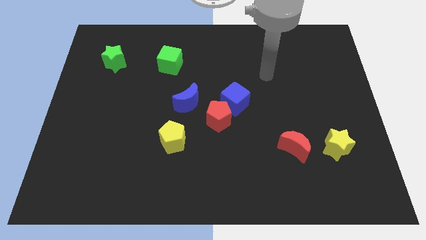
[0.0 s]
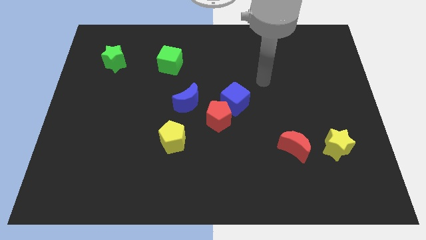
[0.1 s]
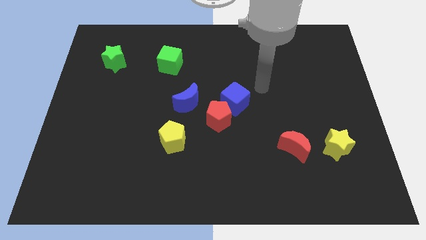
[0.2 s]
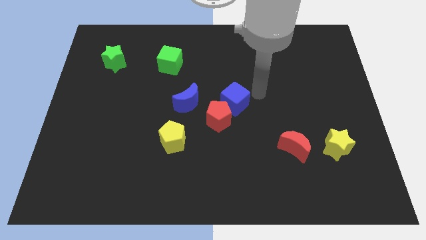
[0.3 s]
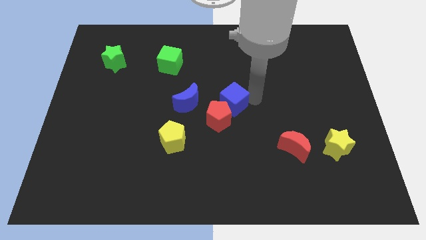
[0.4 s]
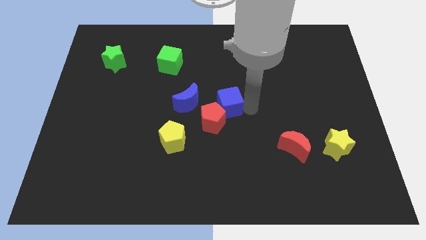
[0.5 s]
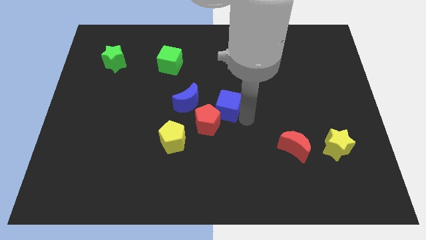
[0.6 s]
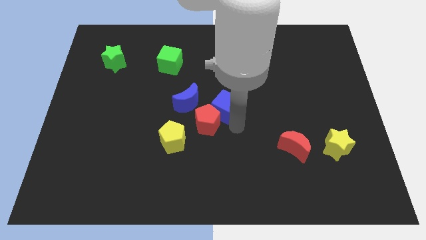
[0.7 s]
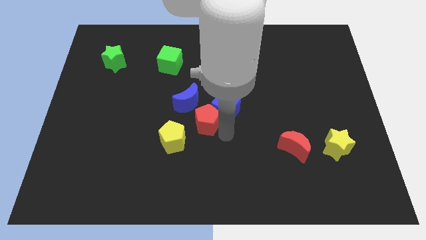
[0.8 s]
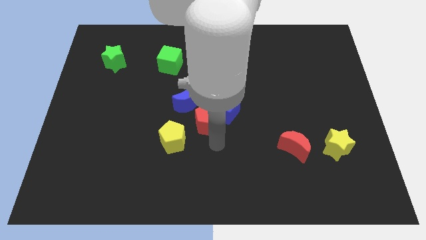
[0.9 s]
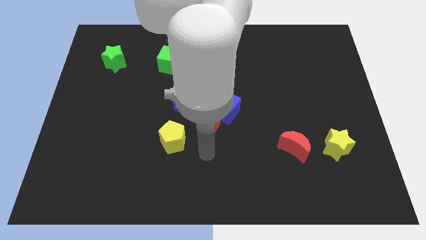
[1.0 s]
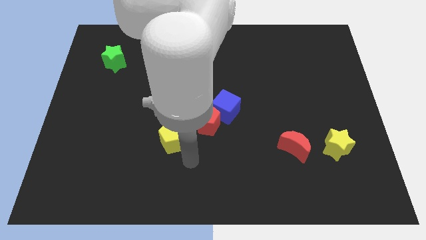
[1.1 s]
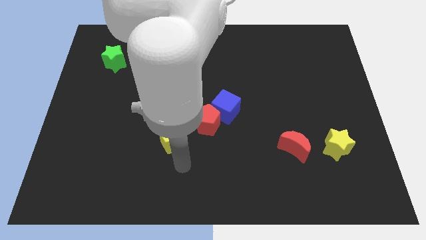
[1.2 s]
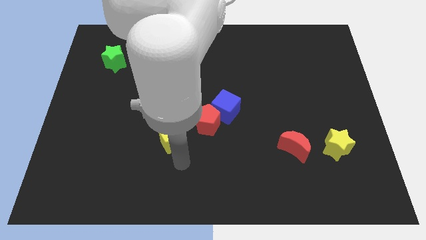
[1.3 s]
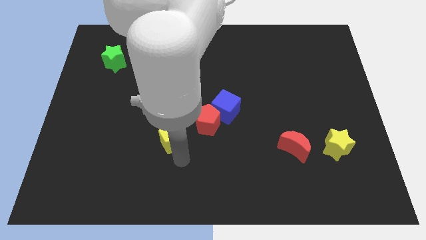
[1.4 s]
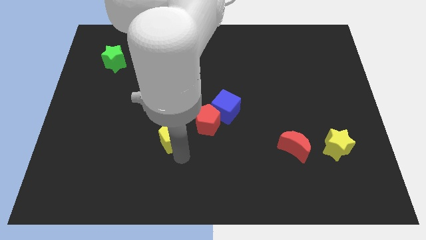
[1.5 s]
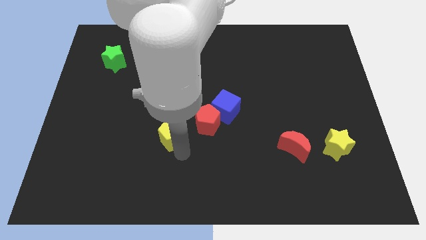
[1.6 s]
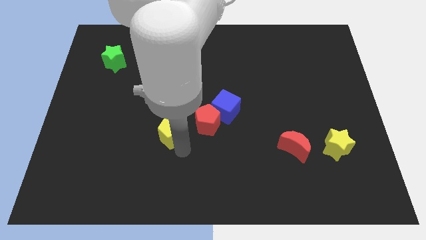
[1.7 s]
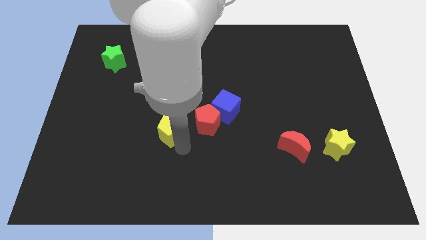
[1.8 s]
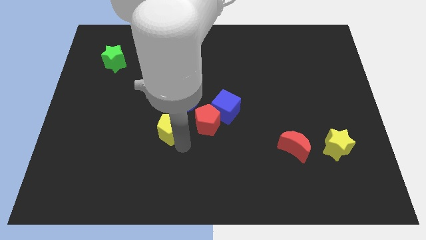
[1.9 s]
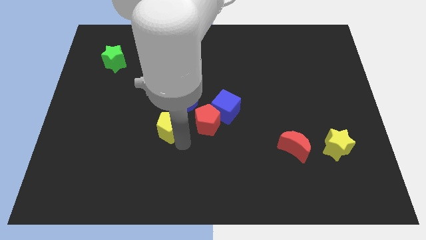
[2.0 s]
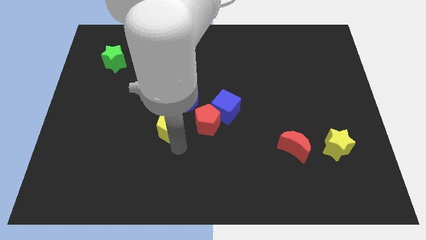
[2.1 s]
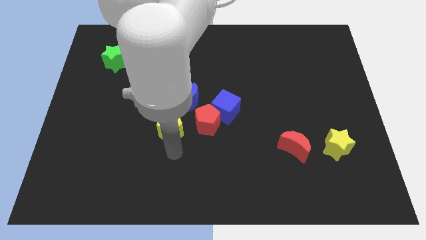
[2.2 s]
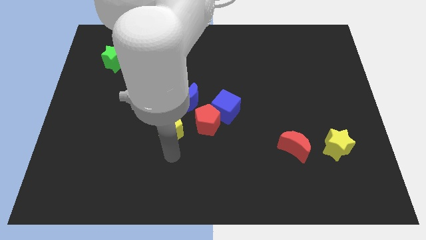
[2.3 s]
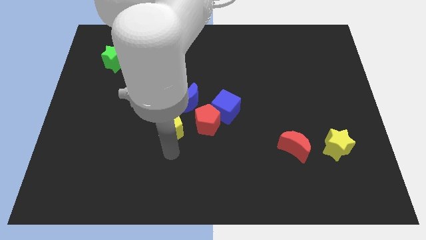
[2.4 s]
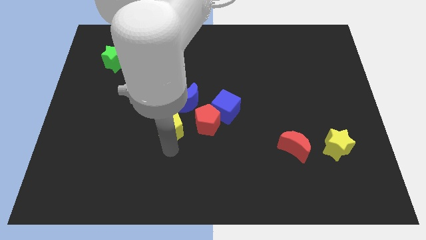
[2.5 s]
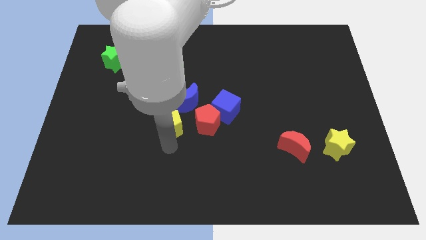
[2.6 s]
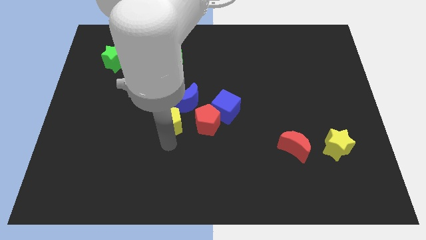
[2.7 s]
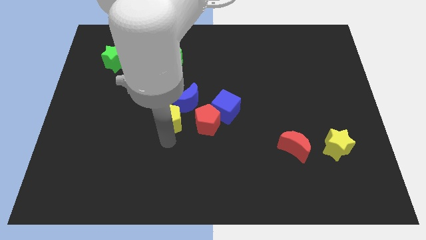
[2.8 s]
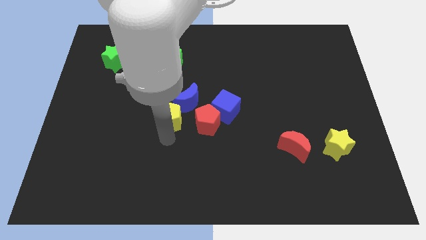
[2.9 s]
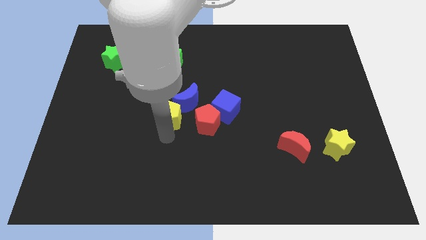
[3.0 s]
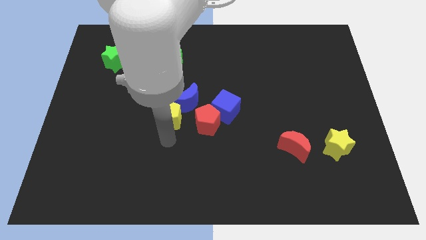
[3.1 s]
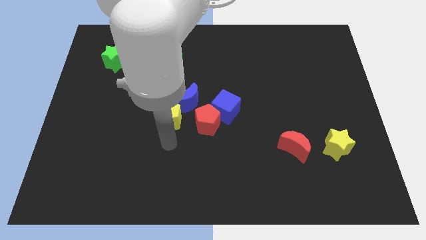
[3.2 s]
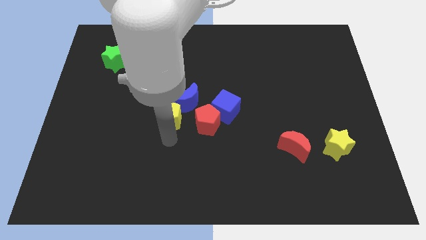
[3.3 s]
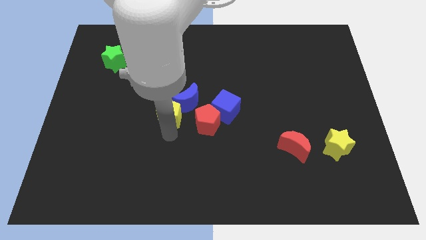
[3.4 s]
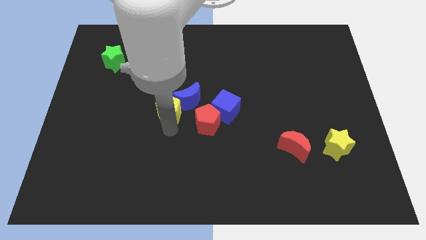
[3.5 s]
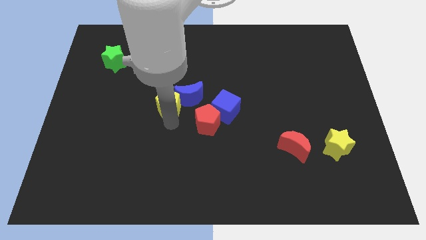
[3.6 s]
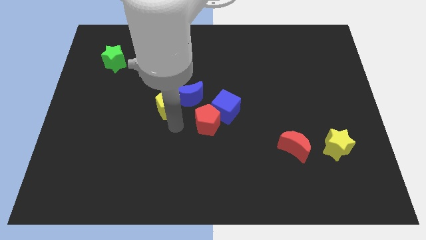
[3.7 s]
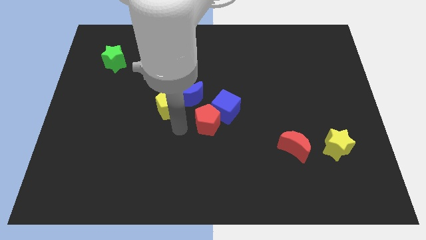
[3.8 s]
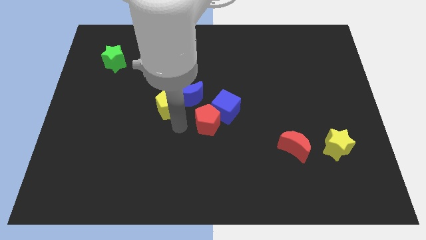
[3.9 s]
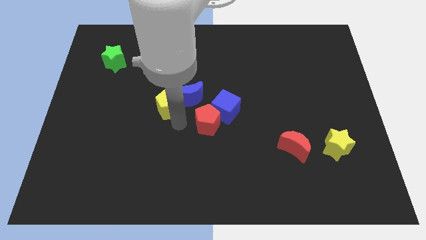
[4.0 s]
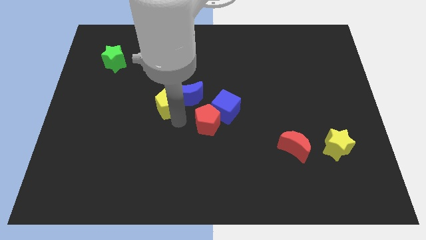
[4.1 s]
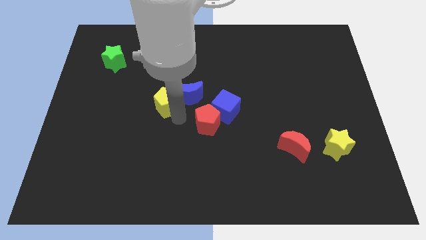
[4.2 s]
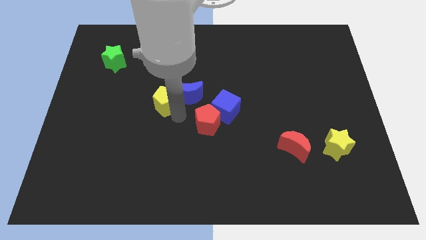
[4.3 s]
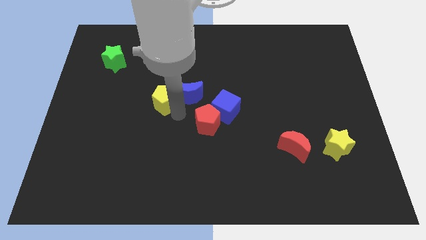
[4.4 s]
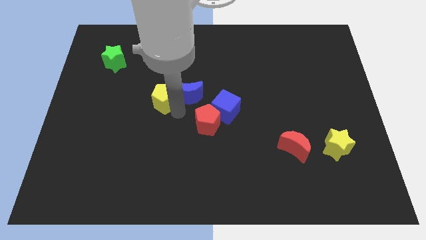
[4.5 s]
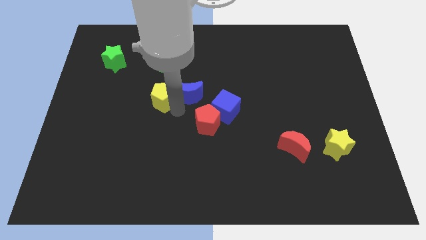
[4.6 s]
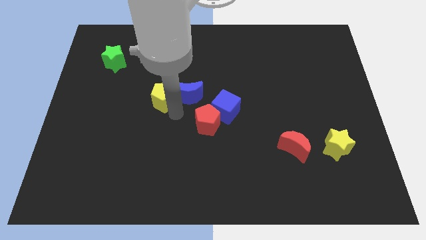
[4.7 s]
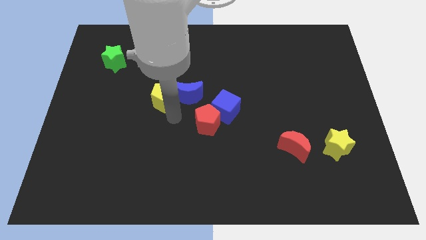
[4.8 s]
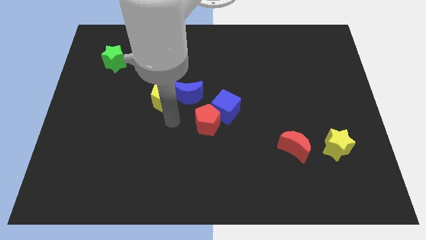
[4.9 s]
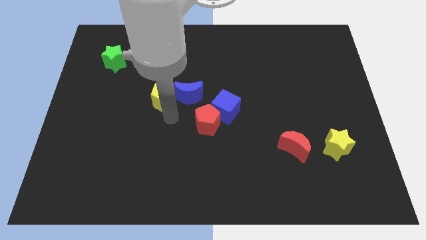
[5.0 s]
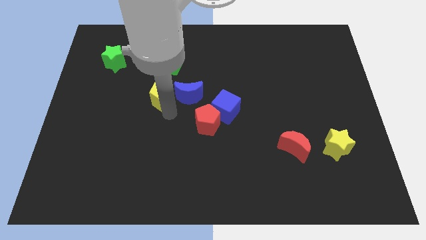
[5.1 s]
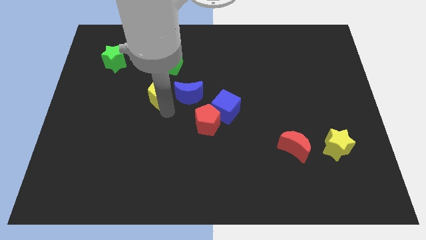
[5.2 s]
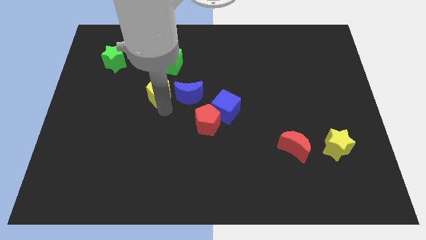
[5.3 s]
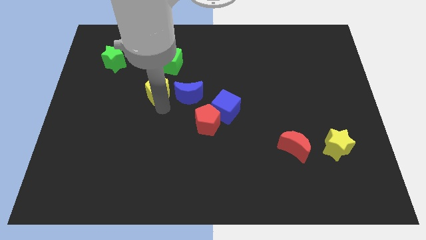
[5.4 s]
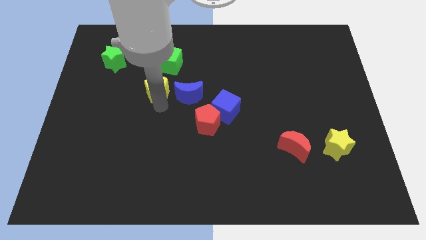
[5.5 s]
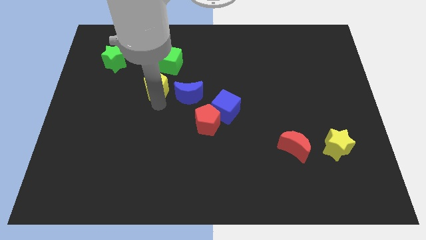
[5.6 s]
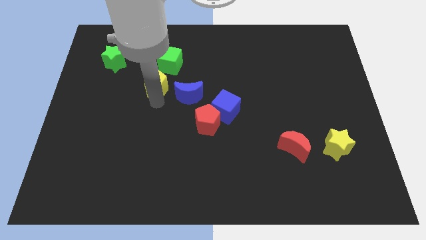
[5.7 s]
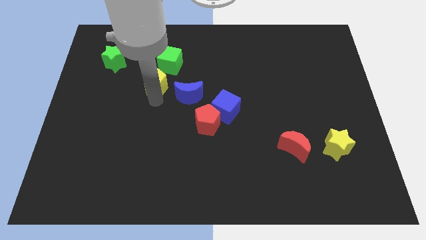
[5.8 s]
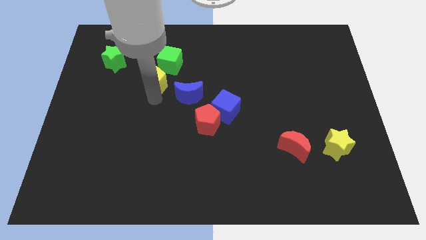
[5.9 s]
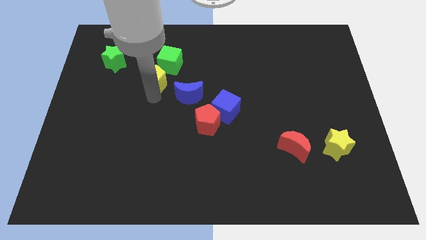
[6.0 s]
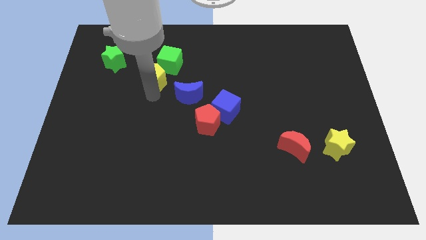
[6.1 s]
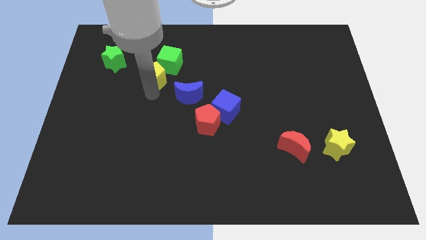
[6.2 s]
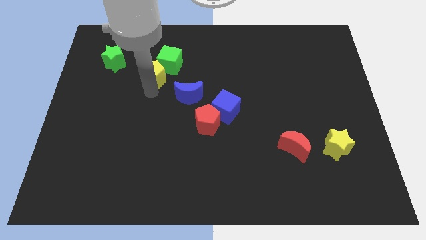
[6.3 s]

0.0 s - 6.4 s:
slide the yellow pentagon close to the green cube

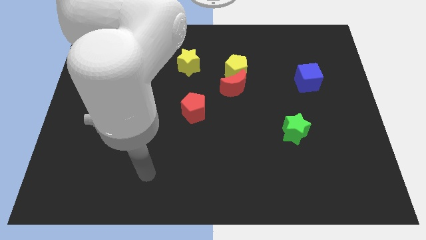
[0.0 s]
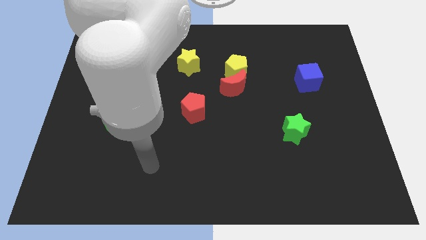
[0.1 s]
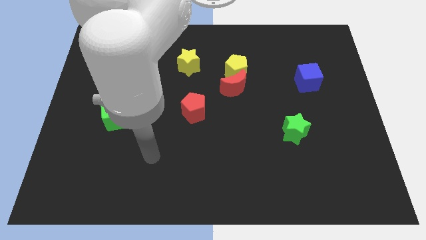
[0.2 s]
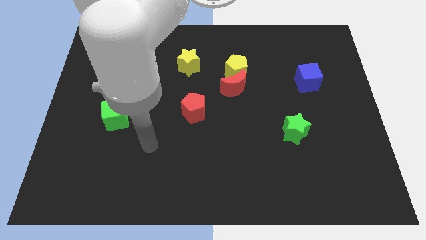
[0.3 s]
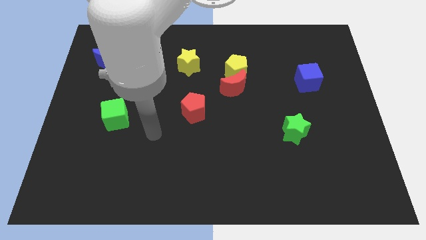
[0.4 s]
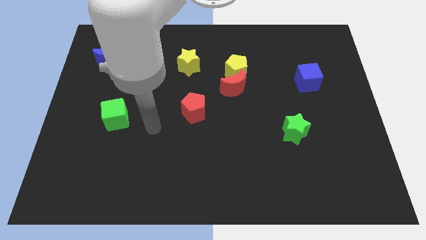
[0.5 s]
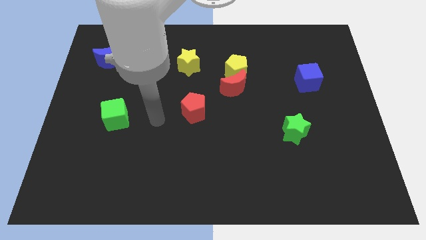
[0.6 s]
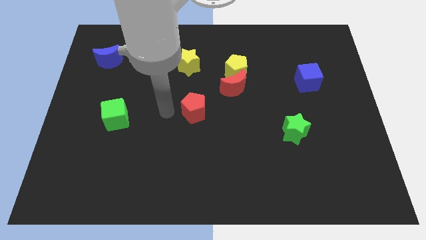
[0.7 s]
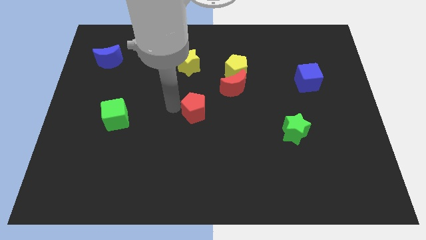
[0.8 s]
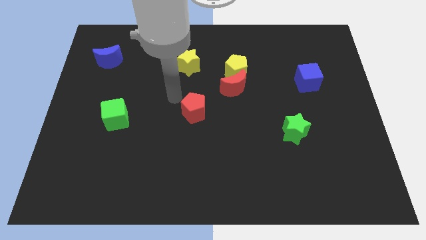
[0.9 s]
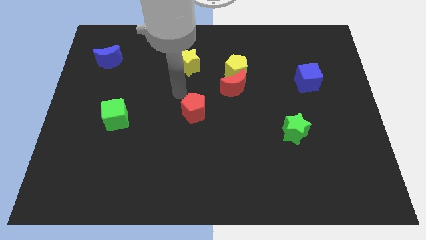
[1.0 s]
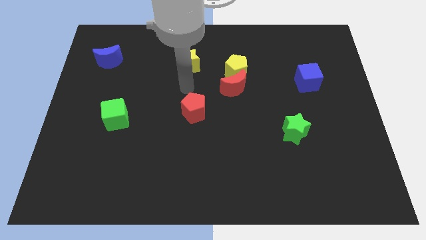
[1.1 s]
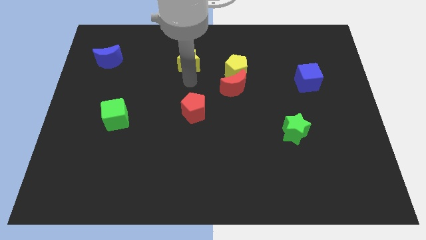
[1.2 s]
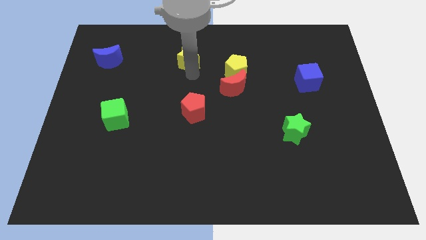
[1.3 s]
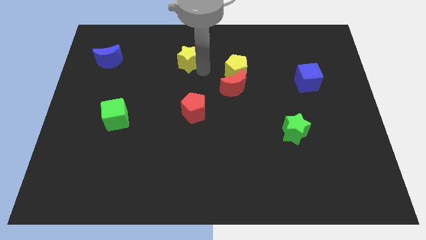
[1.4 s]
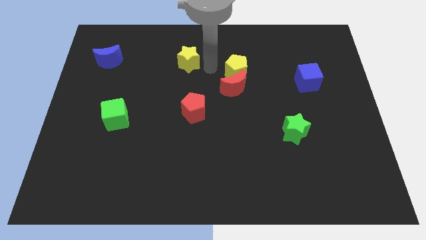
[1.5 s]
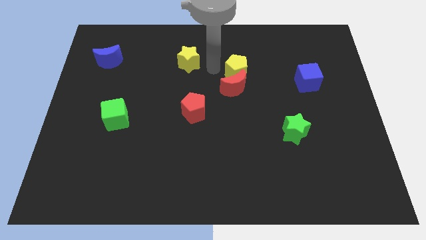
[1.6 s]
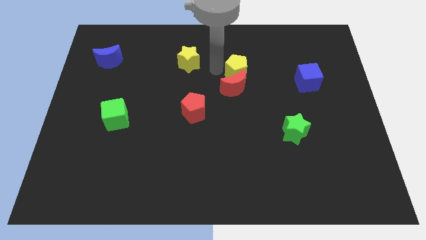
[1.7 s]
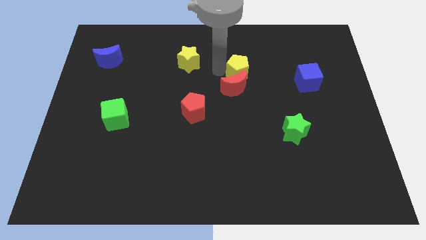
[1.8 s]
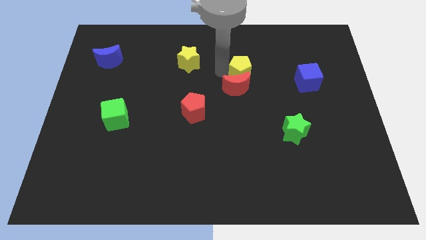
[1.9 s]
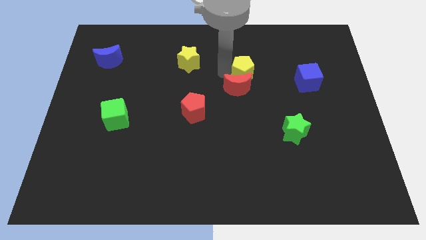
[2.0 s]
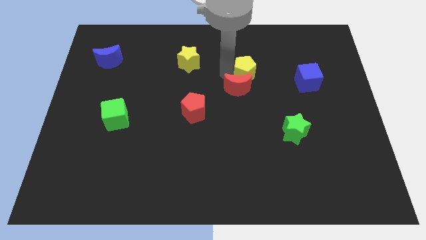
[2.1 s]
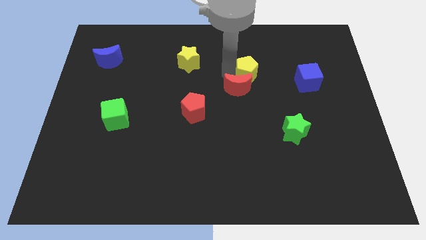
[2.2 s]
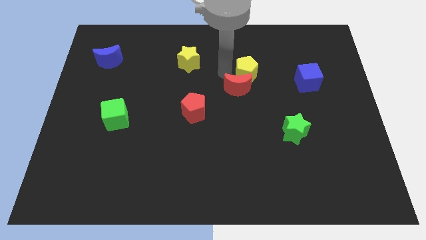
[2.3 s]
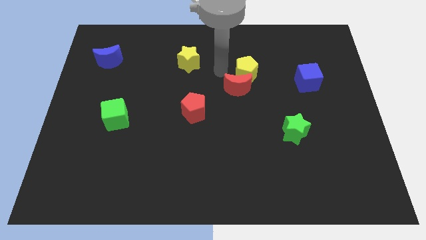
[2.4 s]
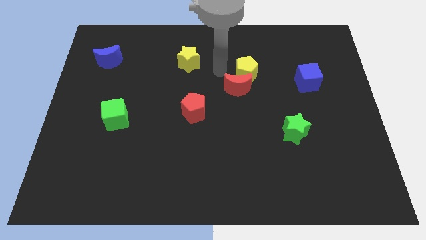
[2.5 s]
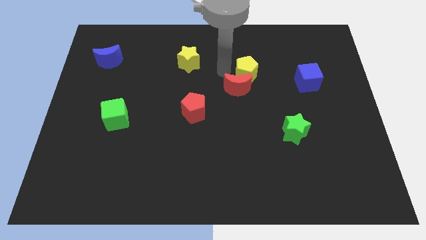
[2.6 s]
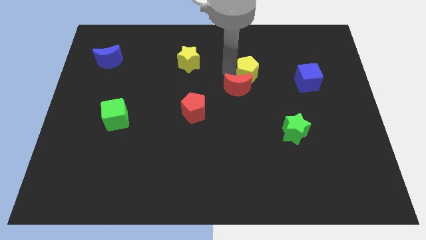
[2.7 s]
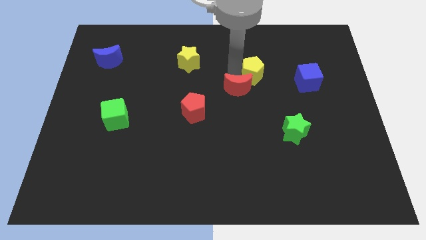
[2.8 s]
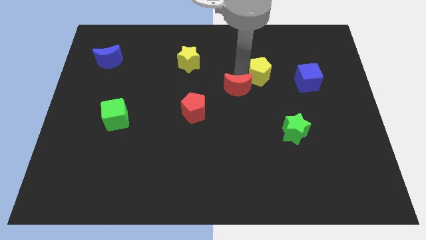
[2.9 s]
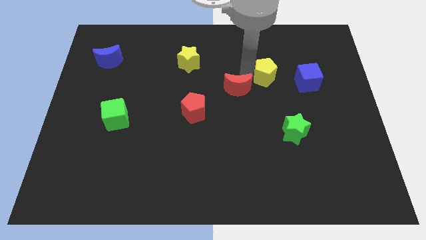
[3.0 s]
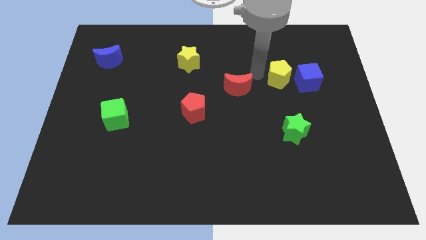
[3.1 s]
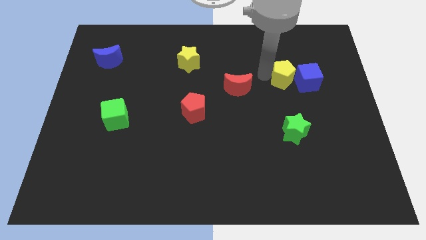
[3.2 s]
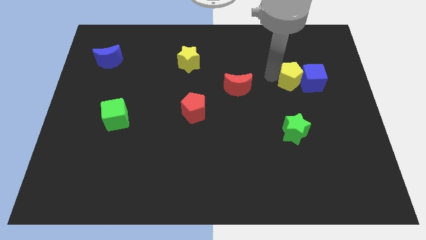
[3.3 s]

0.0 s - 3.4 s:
slide the yellow pentagon to the blue cube
